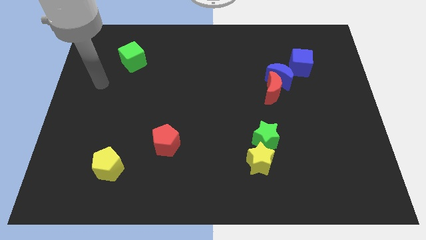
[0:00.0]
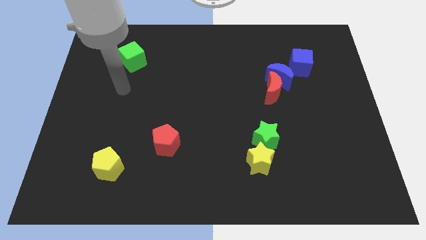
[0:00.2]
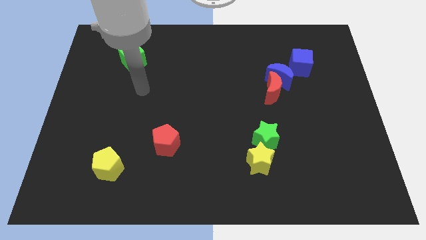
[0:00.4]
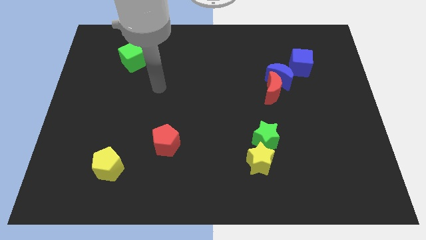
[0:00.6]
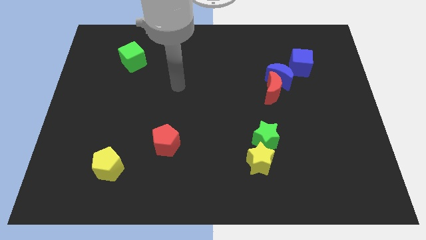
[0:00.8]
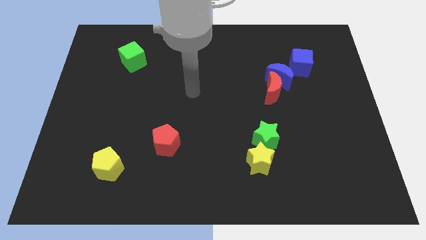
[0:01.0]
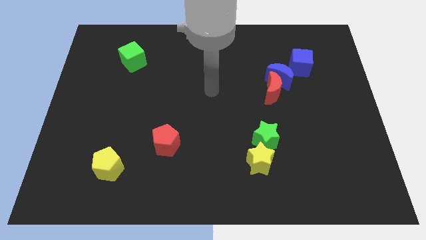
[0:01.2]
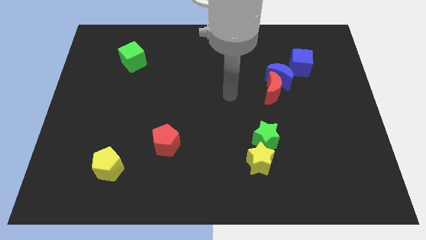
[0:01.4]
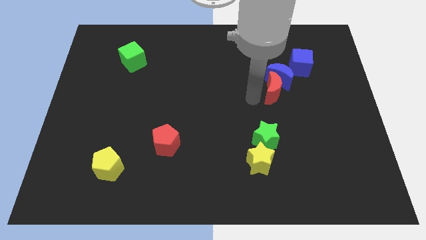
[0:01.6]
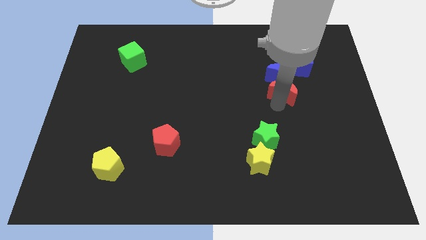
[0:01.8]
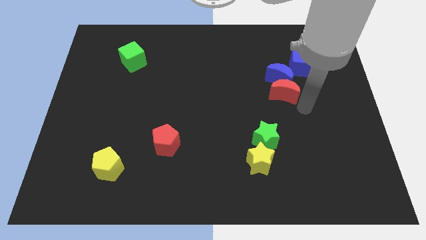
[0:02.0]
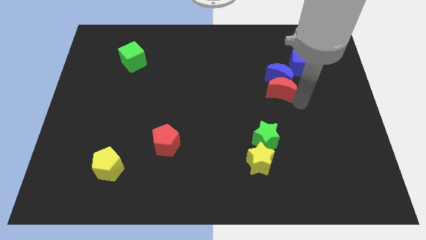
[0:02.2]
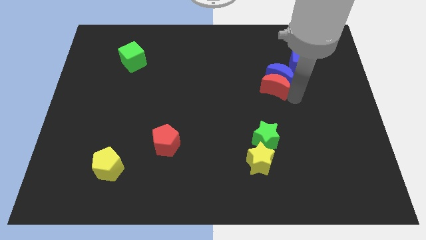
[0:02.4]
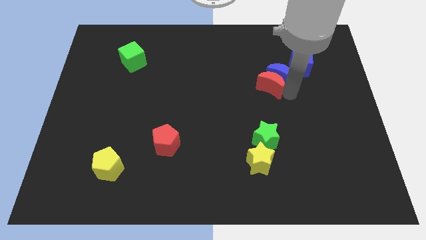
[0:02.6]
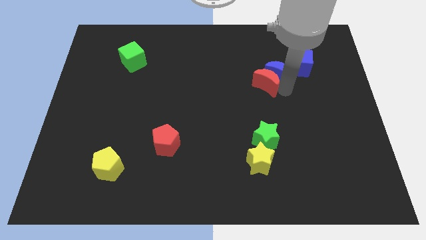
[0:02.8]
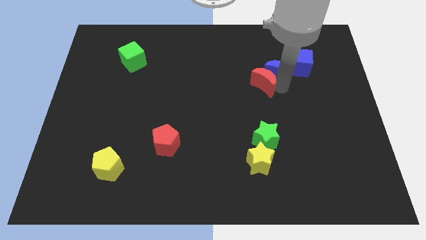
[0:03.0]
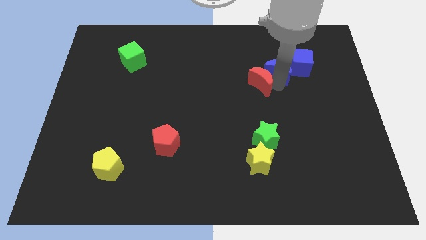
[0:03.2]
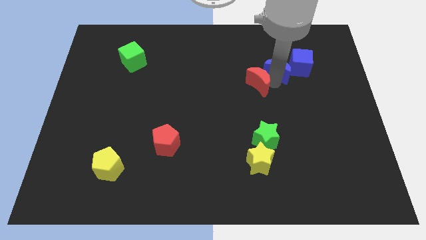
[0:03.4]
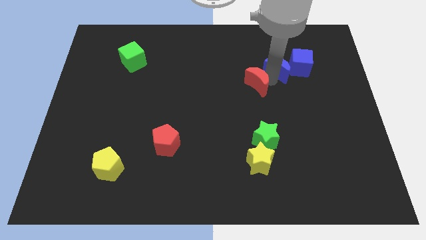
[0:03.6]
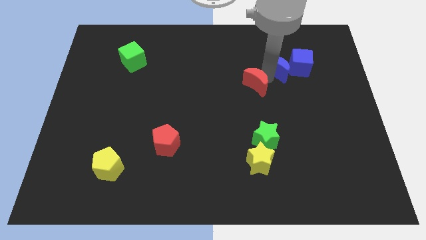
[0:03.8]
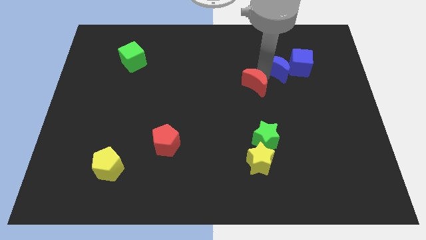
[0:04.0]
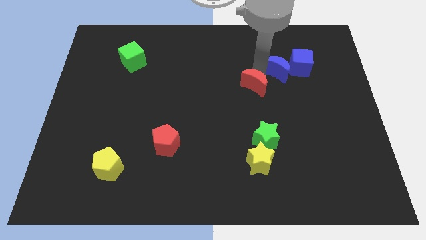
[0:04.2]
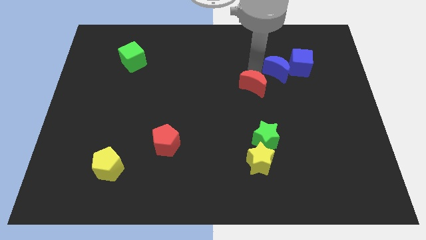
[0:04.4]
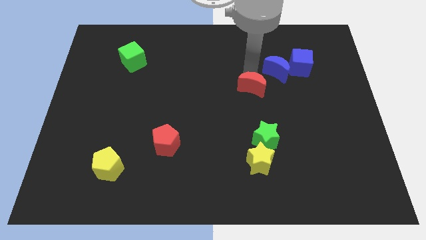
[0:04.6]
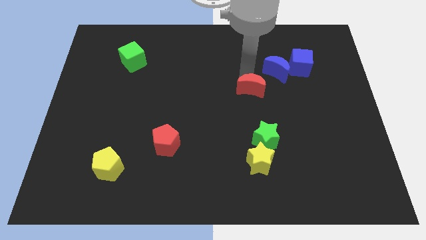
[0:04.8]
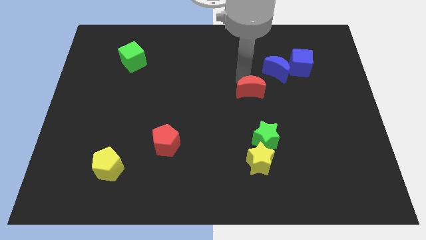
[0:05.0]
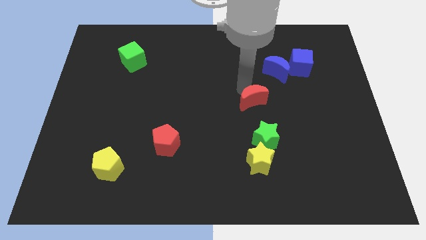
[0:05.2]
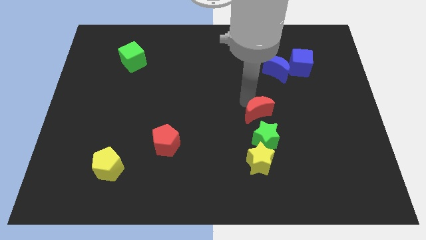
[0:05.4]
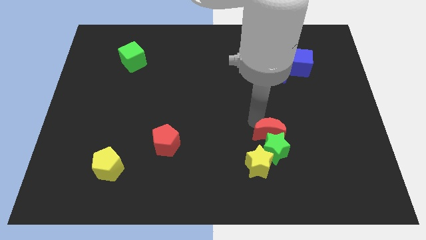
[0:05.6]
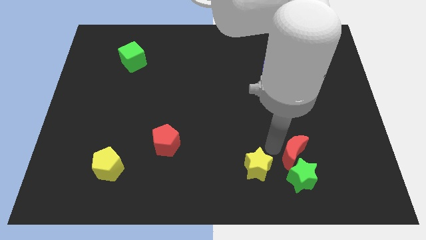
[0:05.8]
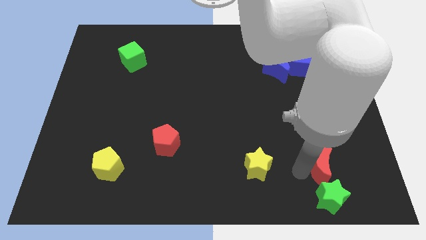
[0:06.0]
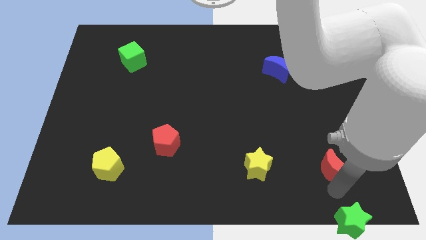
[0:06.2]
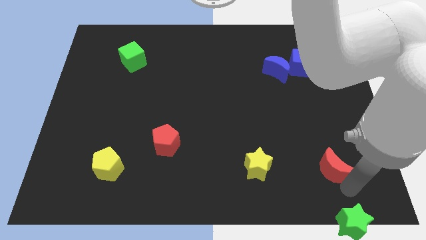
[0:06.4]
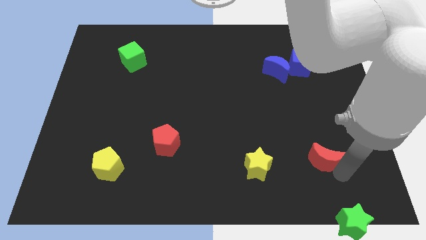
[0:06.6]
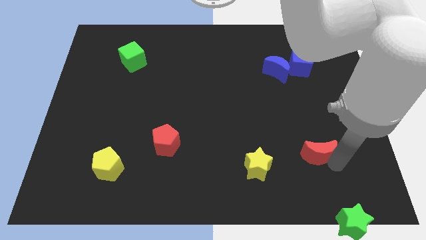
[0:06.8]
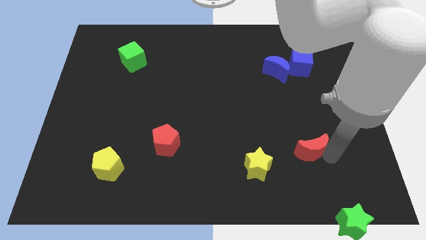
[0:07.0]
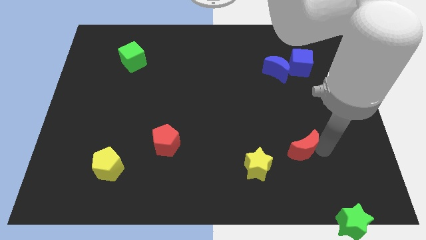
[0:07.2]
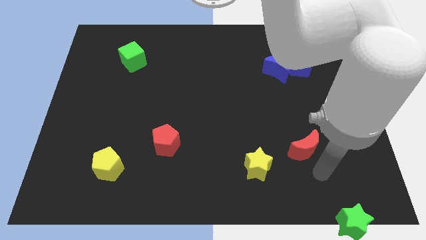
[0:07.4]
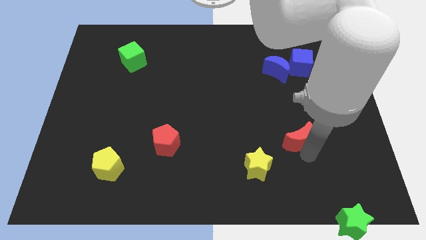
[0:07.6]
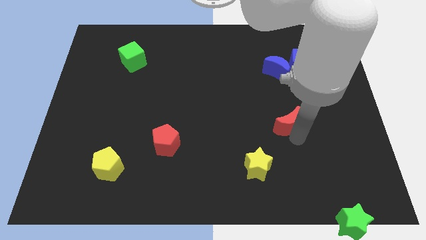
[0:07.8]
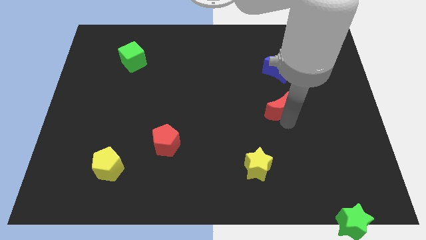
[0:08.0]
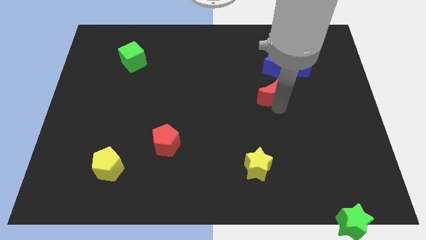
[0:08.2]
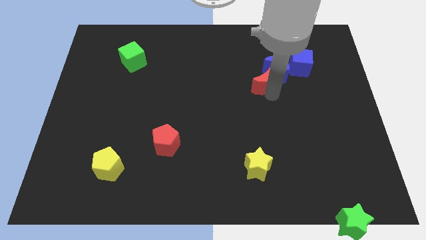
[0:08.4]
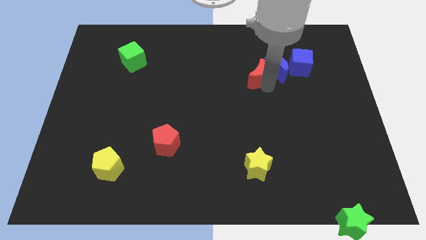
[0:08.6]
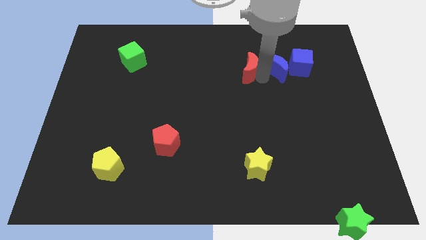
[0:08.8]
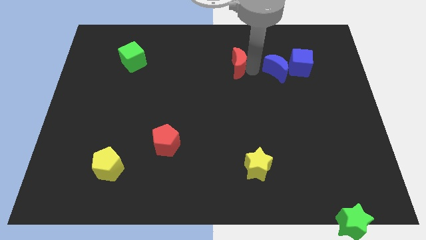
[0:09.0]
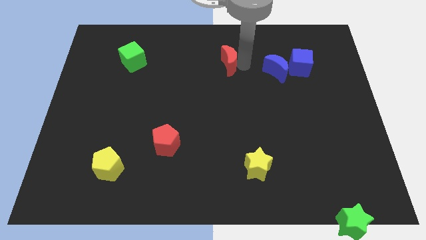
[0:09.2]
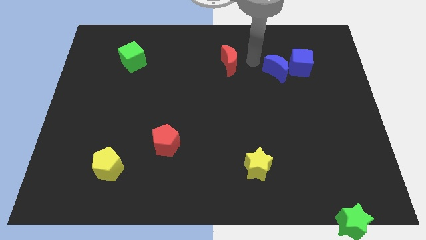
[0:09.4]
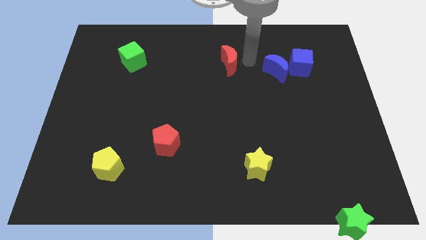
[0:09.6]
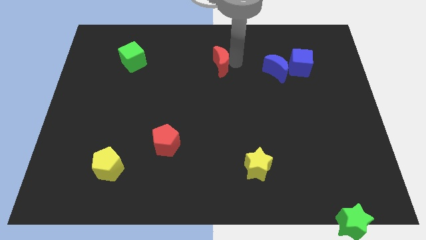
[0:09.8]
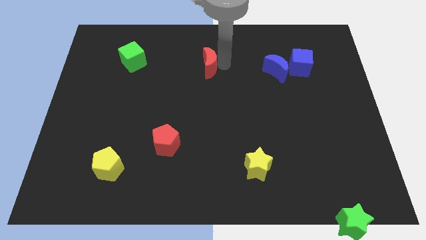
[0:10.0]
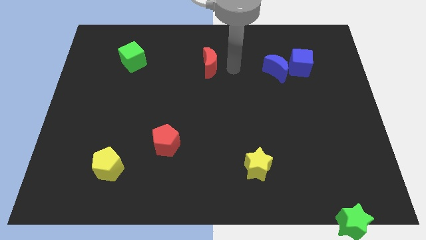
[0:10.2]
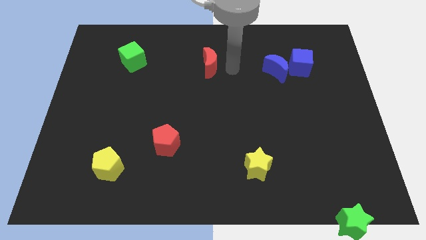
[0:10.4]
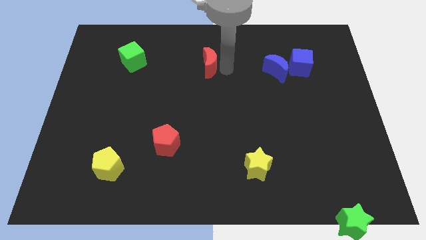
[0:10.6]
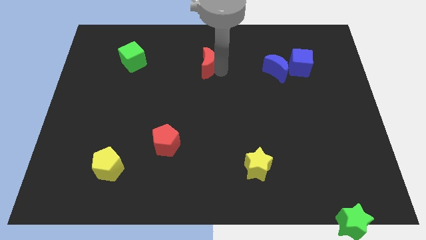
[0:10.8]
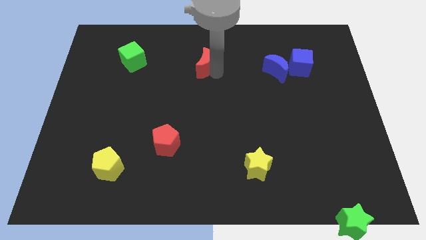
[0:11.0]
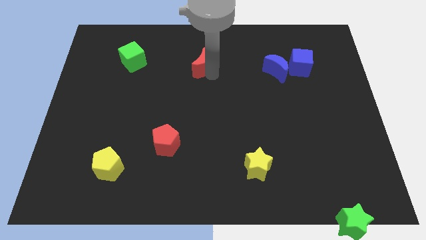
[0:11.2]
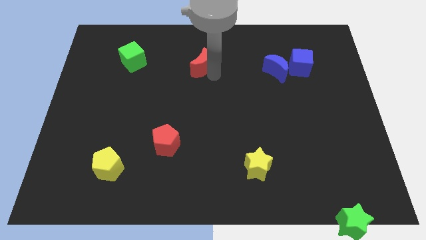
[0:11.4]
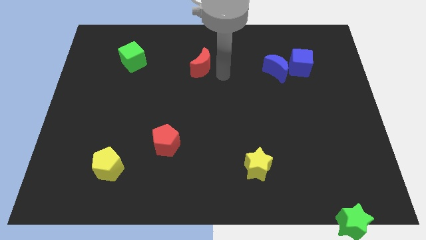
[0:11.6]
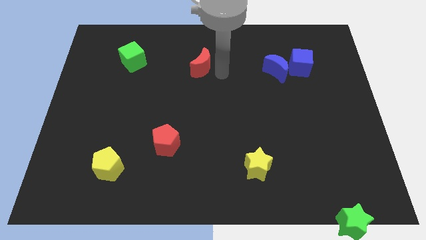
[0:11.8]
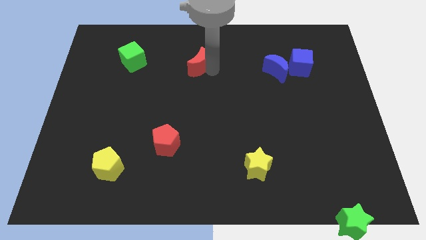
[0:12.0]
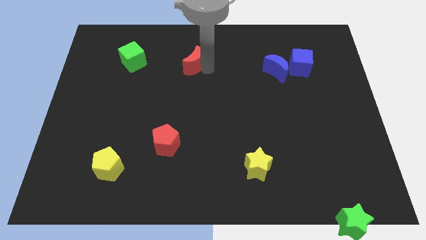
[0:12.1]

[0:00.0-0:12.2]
put the red moon right of the green cube
